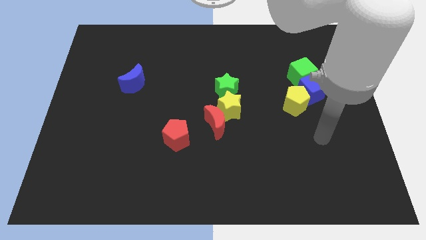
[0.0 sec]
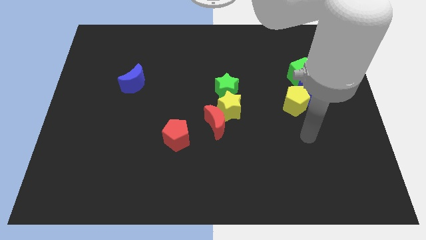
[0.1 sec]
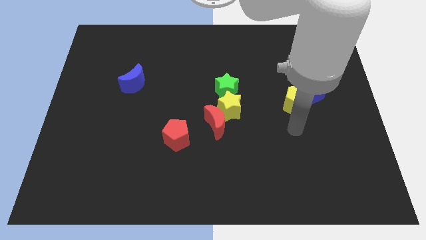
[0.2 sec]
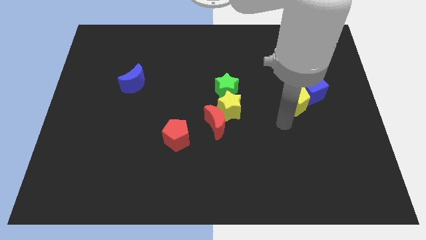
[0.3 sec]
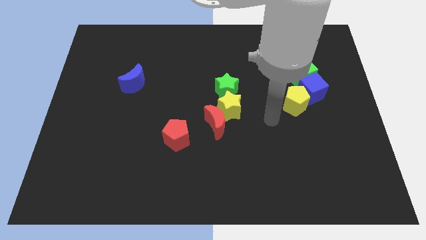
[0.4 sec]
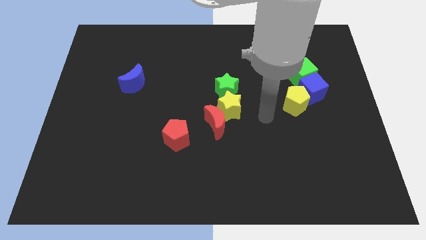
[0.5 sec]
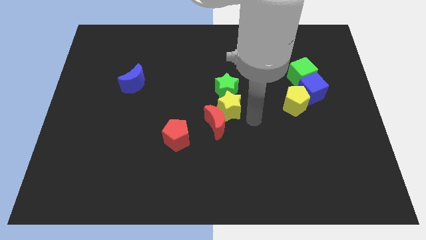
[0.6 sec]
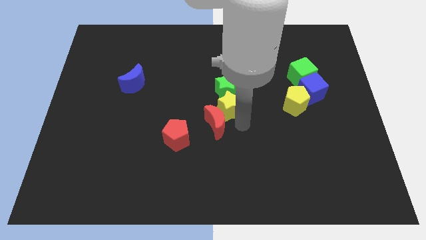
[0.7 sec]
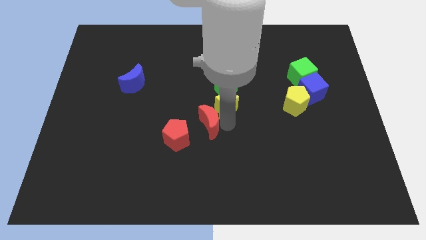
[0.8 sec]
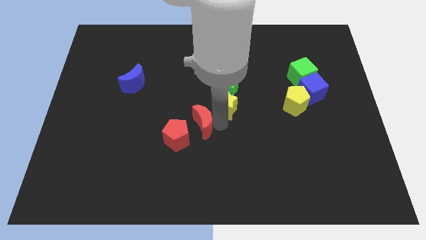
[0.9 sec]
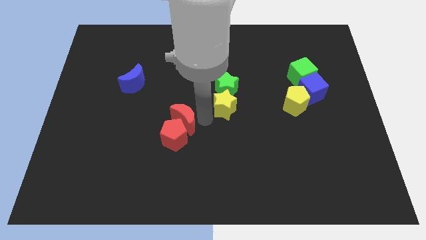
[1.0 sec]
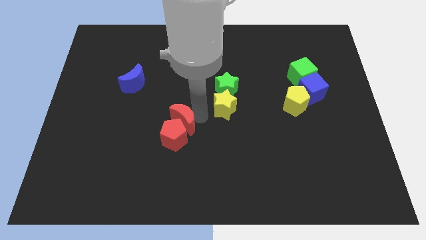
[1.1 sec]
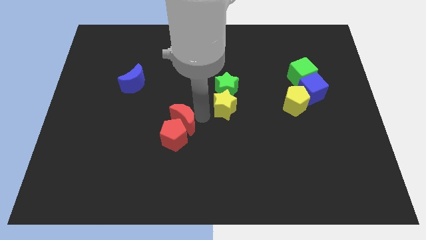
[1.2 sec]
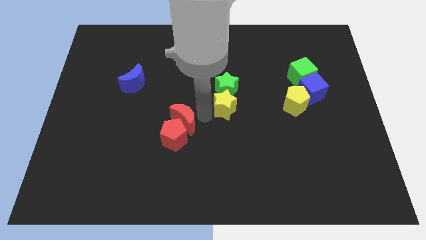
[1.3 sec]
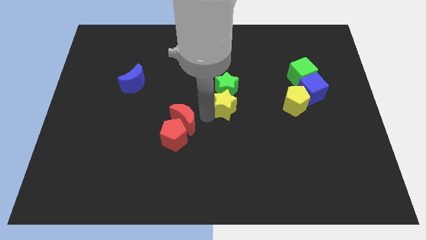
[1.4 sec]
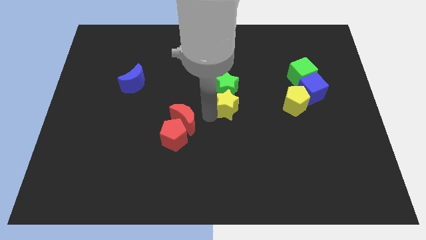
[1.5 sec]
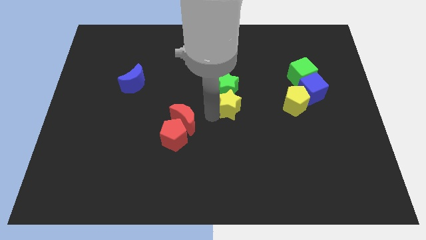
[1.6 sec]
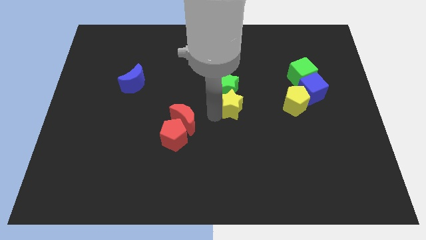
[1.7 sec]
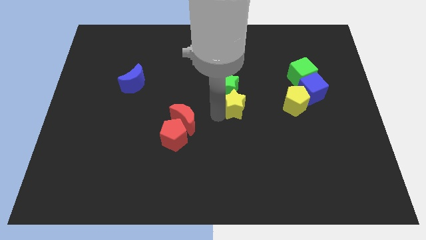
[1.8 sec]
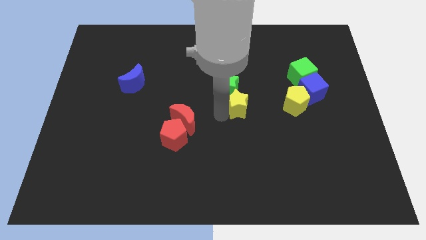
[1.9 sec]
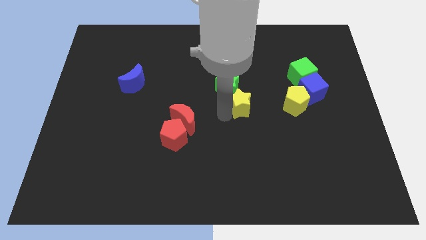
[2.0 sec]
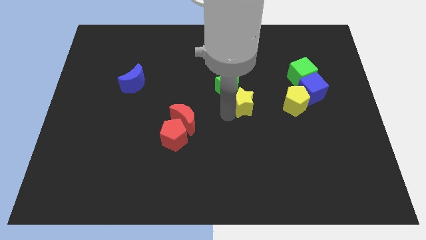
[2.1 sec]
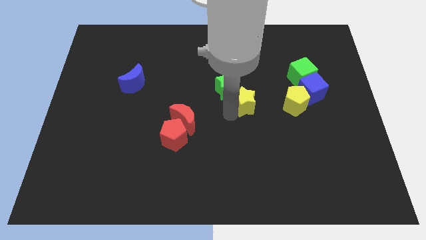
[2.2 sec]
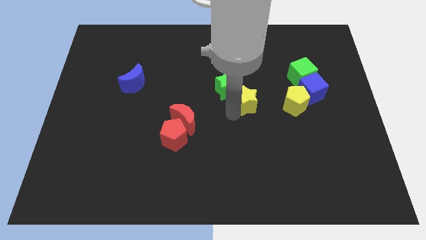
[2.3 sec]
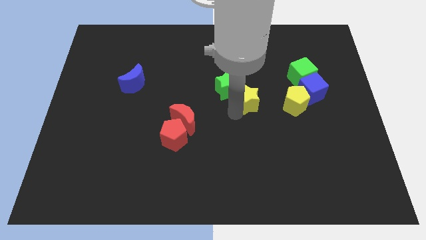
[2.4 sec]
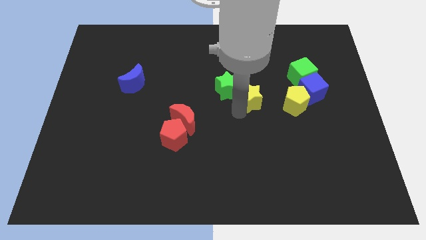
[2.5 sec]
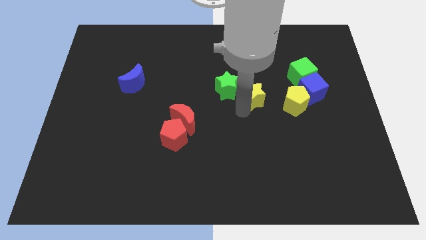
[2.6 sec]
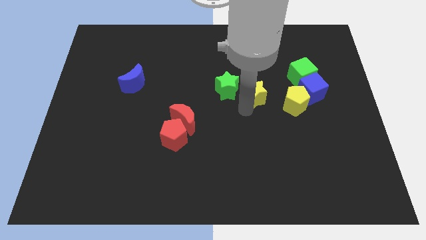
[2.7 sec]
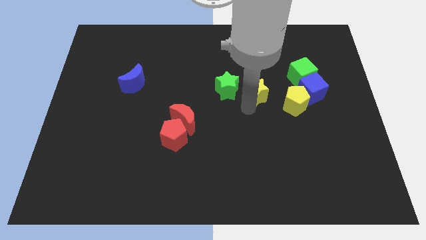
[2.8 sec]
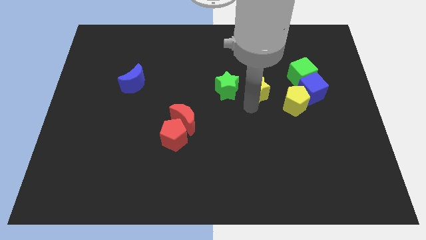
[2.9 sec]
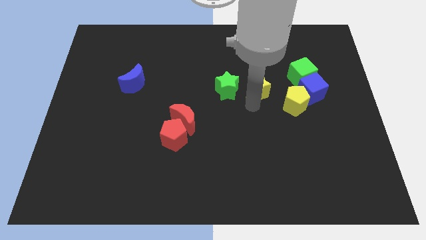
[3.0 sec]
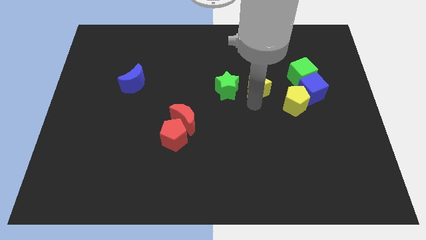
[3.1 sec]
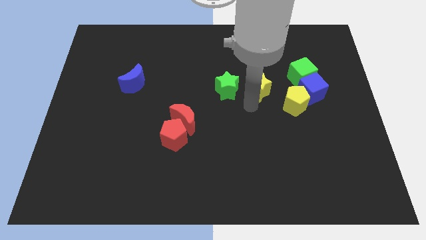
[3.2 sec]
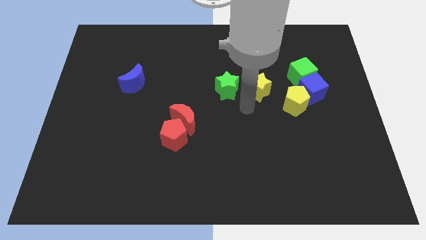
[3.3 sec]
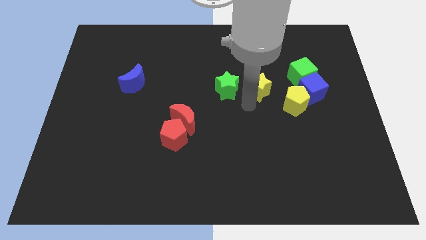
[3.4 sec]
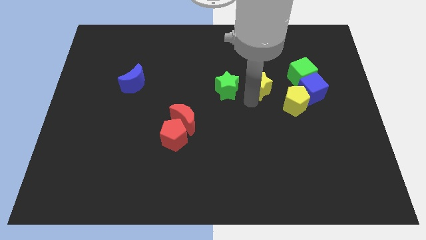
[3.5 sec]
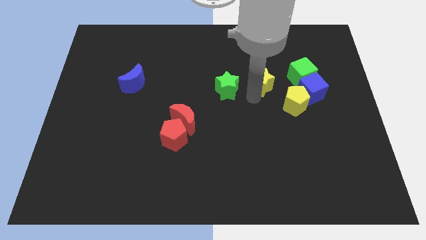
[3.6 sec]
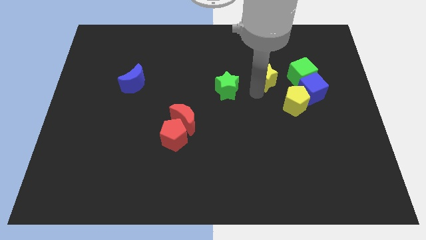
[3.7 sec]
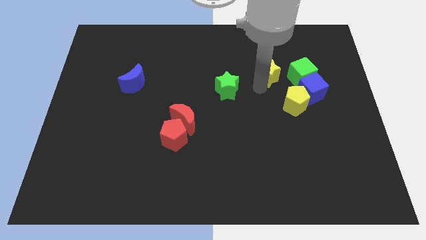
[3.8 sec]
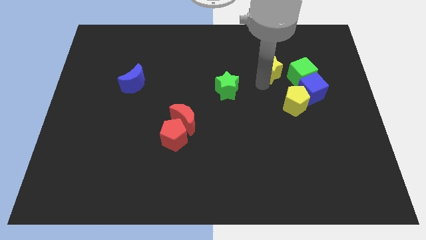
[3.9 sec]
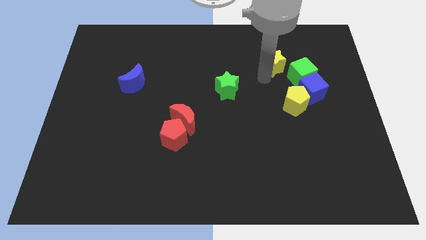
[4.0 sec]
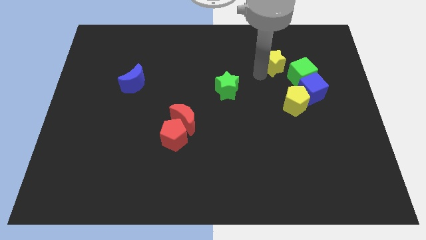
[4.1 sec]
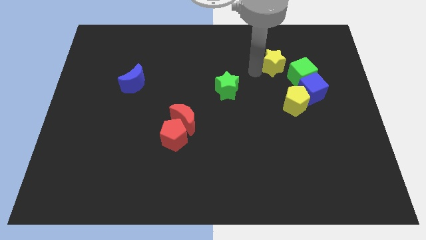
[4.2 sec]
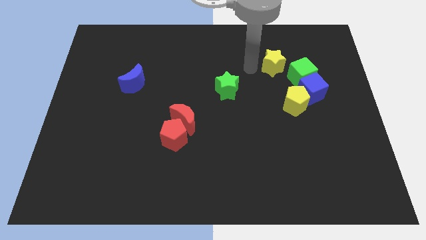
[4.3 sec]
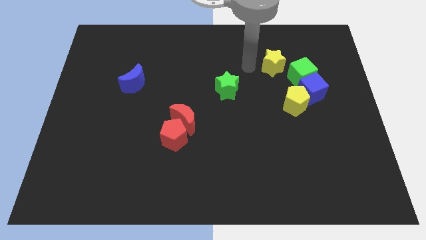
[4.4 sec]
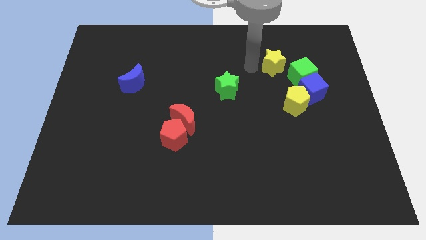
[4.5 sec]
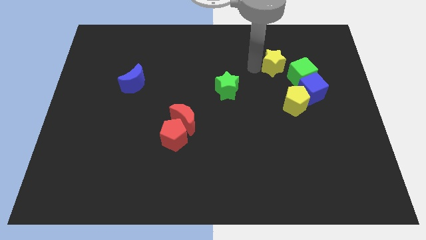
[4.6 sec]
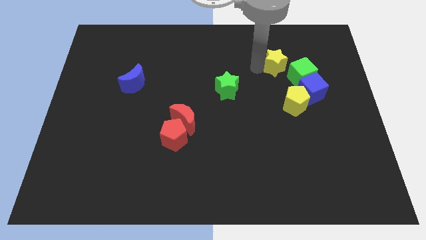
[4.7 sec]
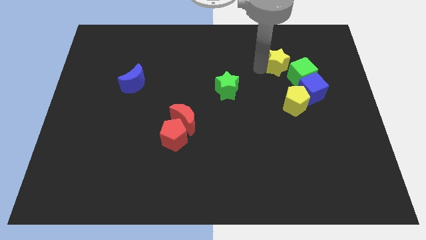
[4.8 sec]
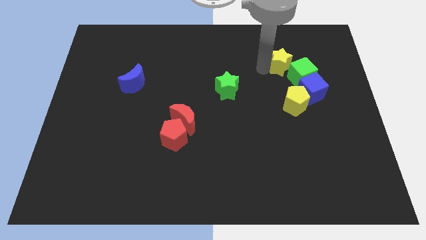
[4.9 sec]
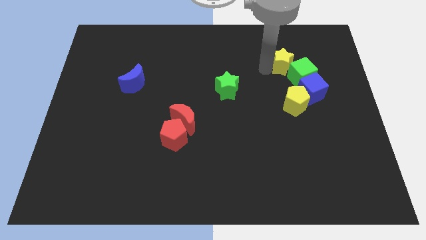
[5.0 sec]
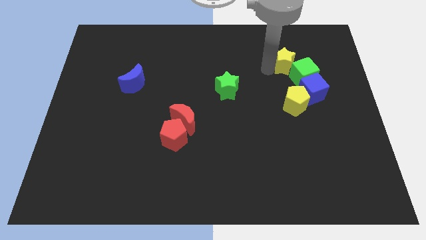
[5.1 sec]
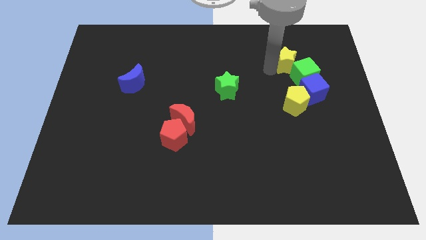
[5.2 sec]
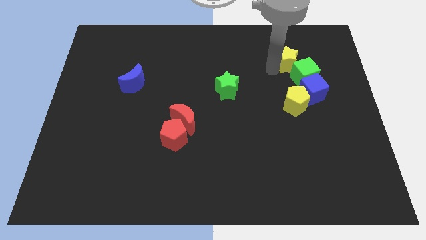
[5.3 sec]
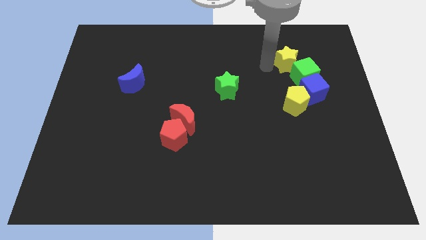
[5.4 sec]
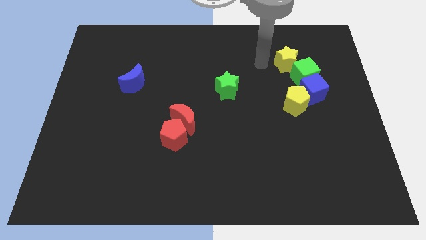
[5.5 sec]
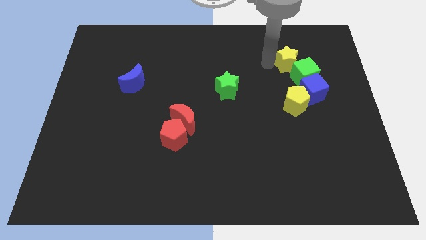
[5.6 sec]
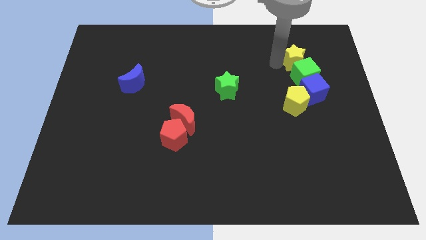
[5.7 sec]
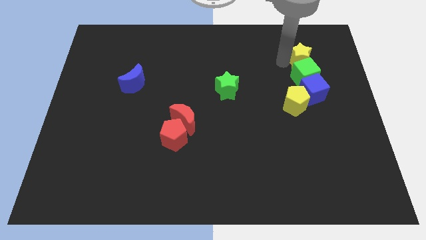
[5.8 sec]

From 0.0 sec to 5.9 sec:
push the yellow star diagonally up and to the right of the green cube
